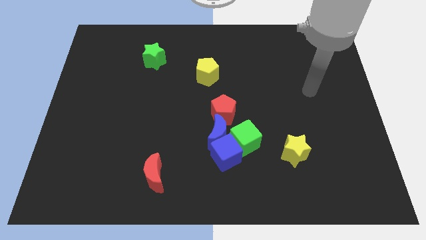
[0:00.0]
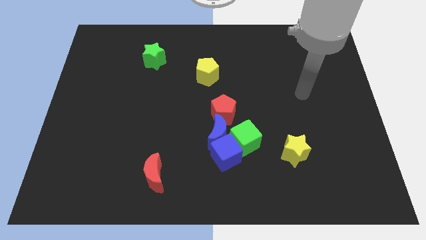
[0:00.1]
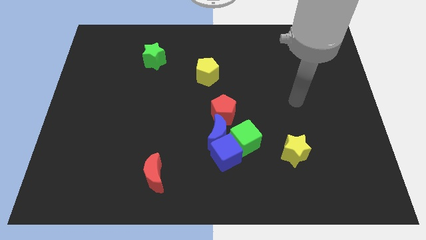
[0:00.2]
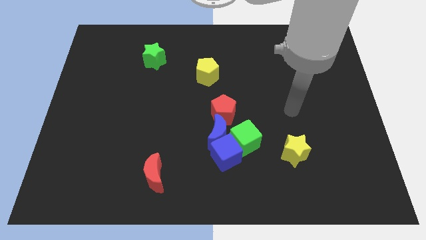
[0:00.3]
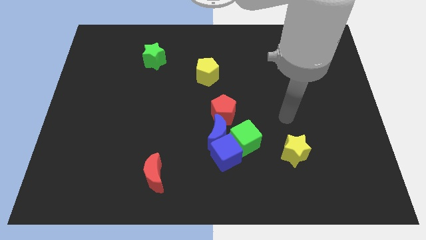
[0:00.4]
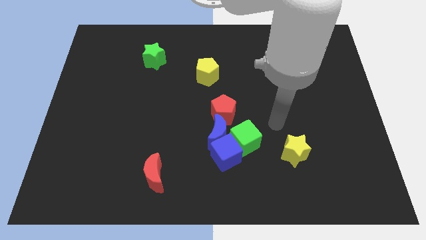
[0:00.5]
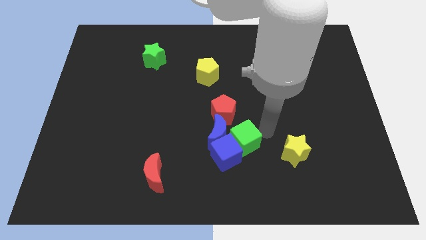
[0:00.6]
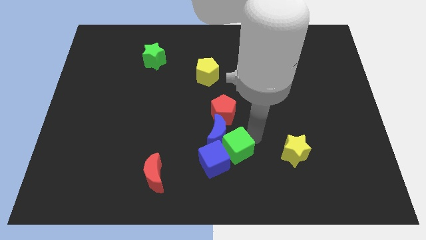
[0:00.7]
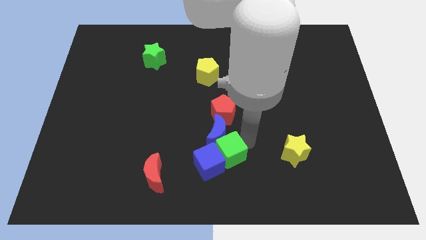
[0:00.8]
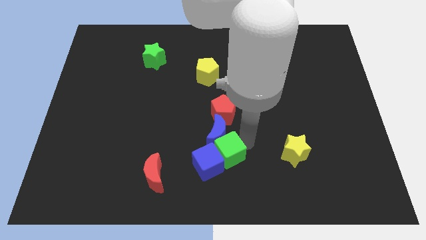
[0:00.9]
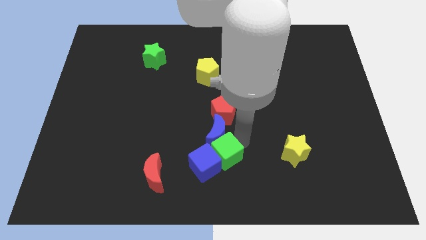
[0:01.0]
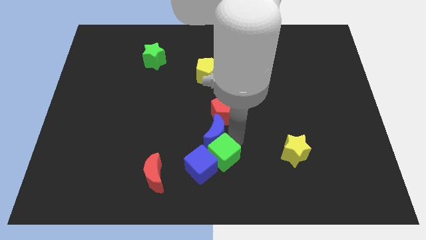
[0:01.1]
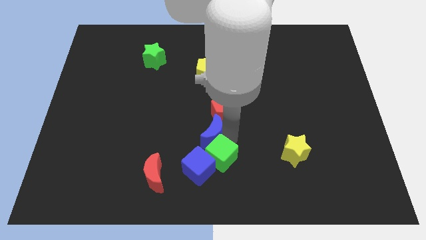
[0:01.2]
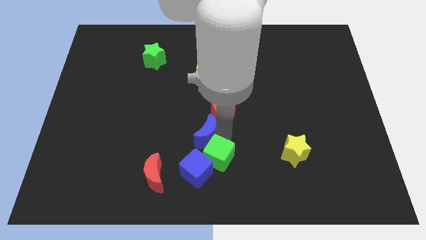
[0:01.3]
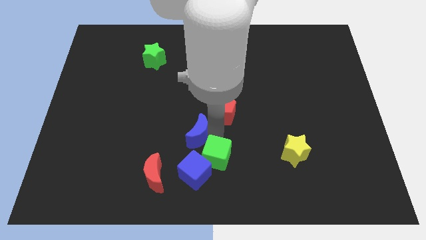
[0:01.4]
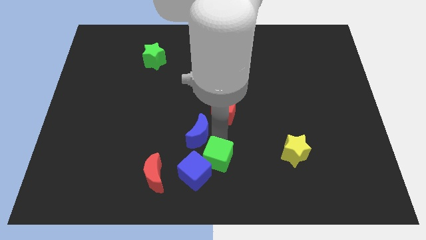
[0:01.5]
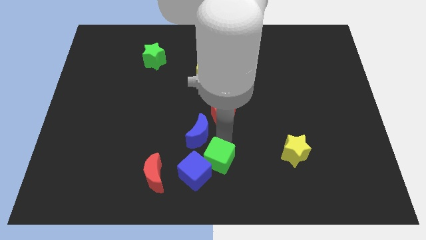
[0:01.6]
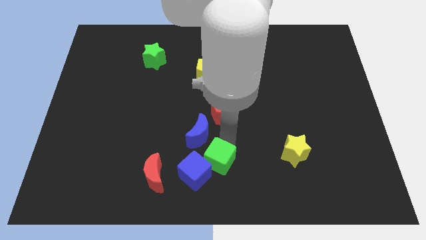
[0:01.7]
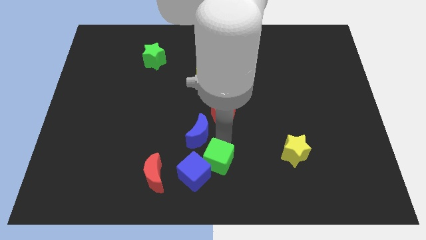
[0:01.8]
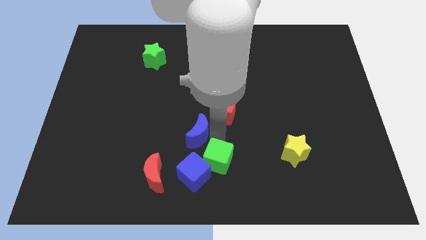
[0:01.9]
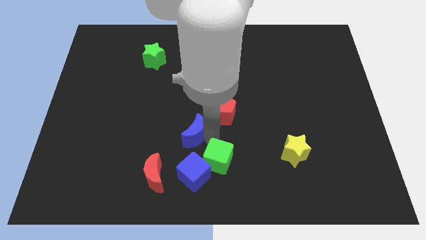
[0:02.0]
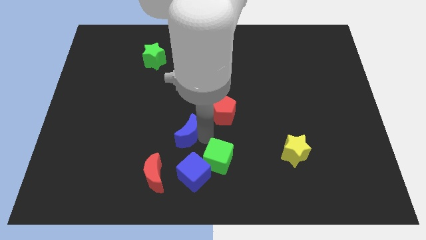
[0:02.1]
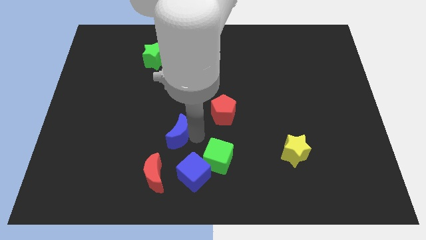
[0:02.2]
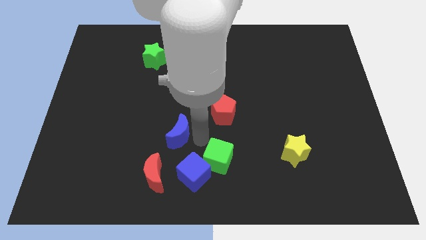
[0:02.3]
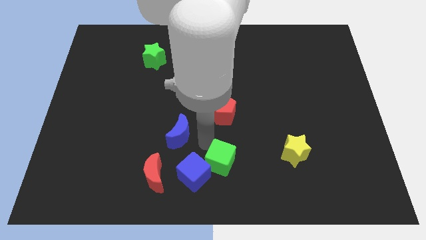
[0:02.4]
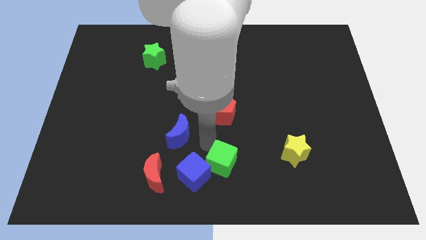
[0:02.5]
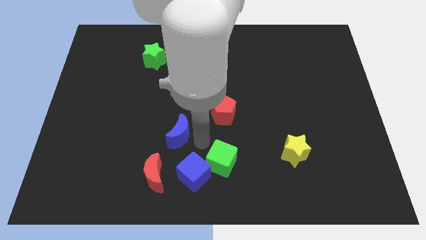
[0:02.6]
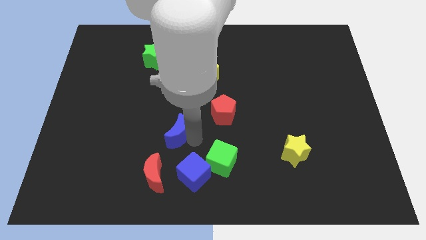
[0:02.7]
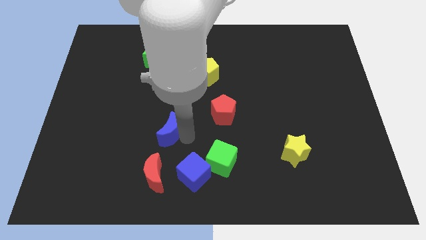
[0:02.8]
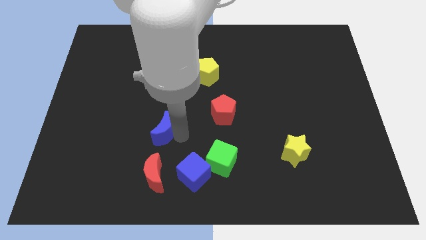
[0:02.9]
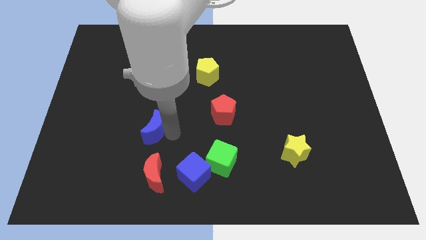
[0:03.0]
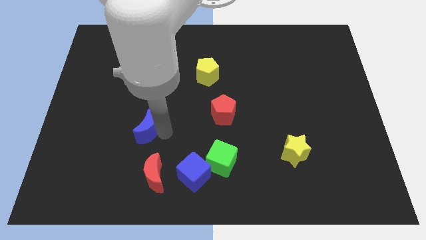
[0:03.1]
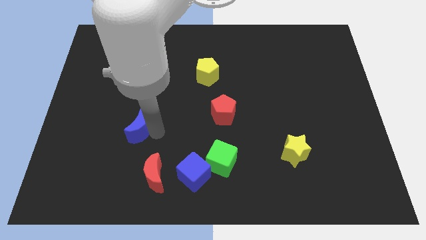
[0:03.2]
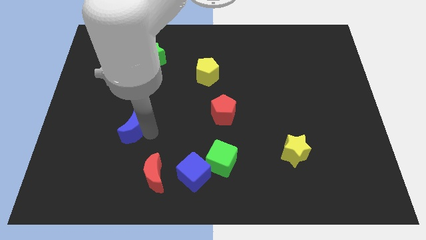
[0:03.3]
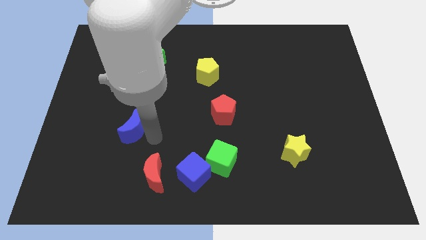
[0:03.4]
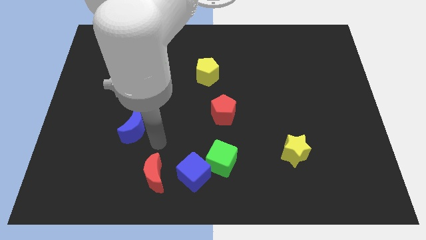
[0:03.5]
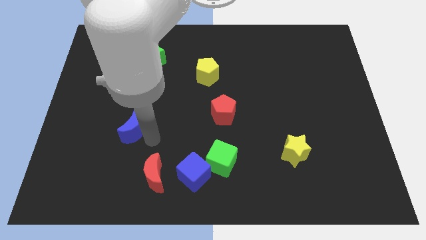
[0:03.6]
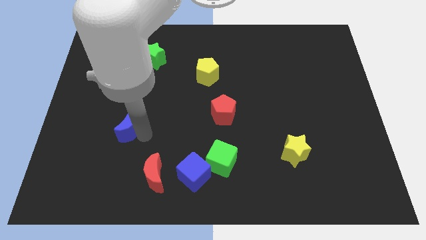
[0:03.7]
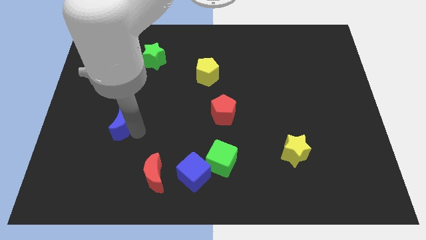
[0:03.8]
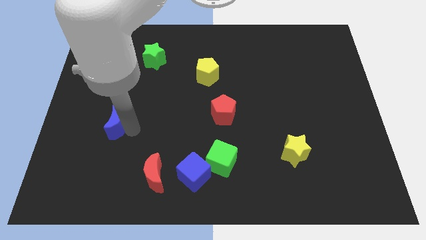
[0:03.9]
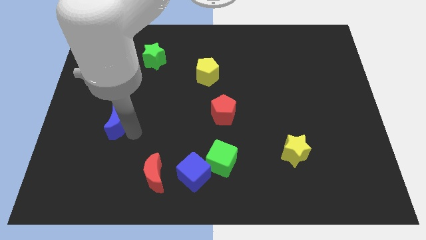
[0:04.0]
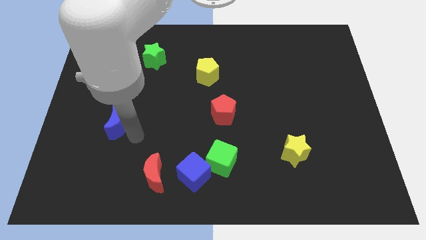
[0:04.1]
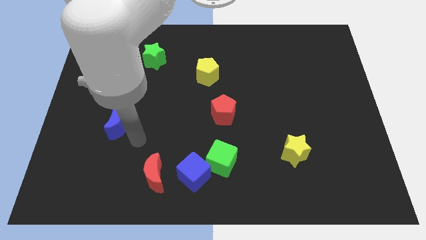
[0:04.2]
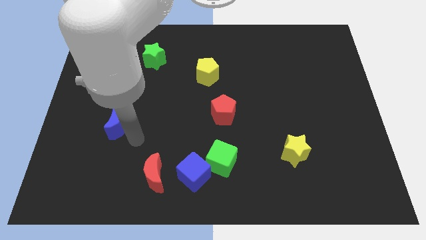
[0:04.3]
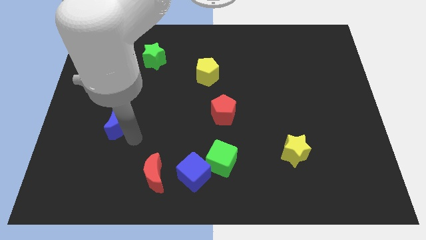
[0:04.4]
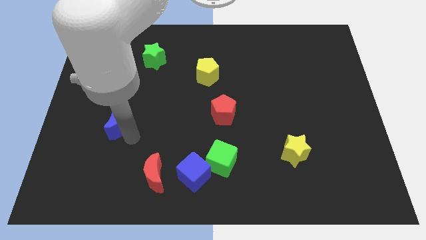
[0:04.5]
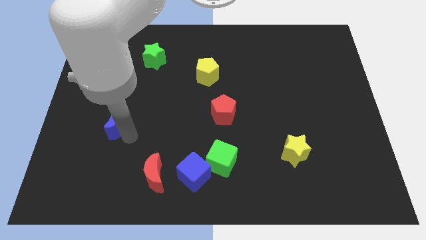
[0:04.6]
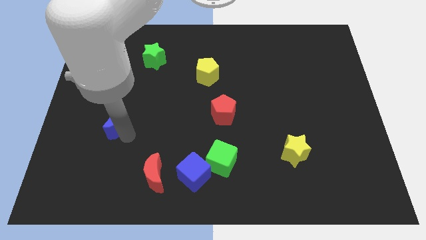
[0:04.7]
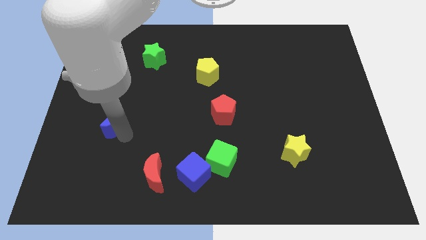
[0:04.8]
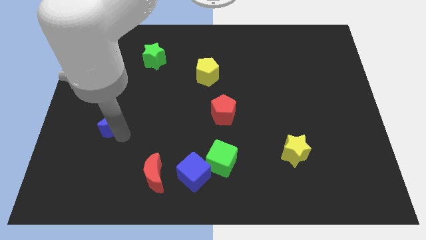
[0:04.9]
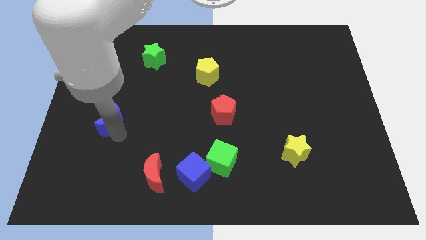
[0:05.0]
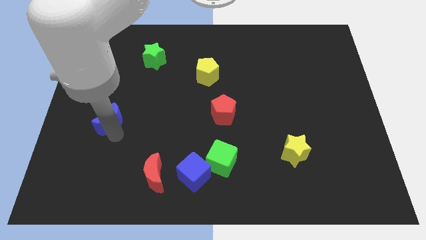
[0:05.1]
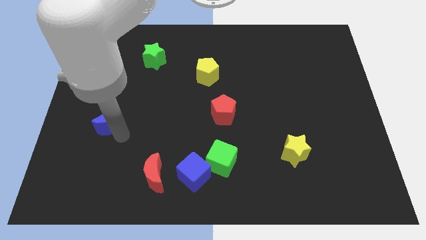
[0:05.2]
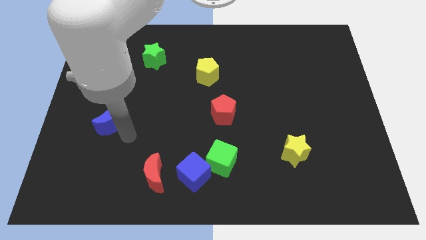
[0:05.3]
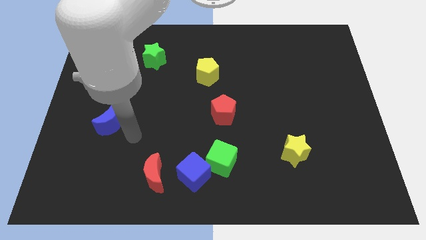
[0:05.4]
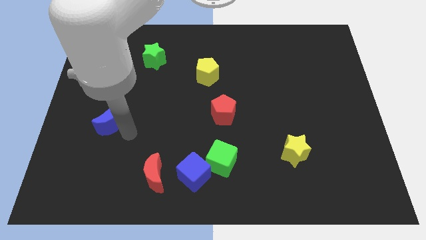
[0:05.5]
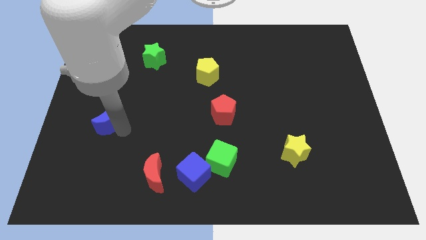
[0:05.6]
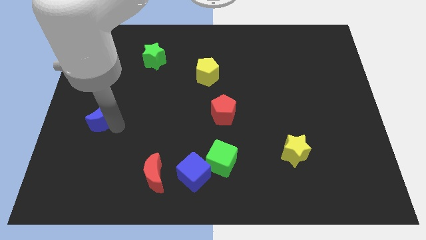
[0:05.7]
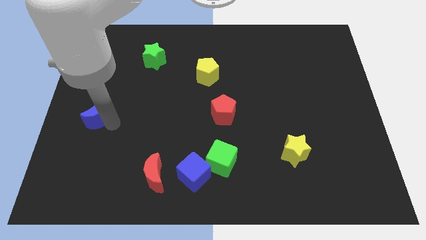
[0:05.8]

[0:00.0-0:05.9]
put the blue moon to the left side

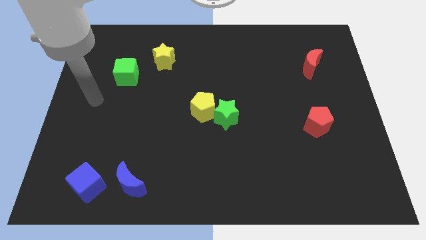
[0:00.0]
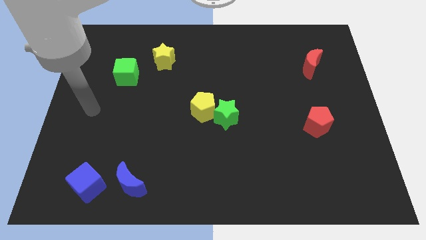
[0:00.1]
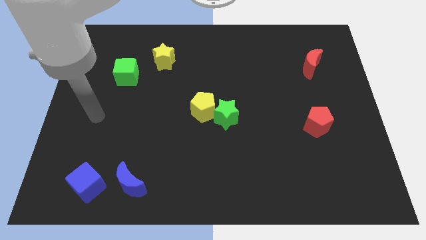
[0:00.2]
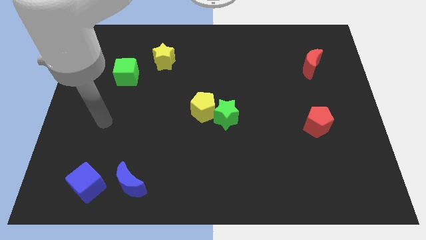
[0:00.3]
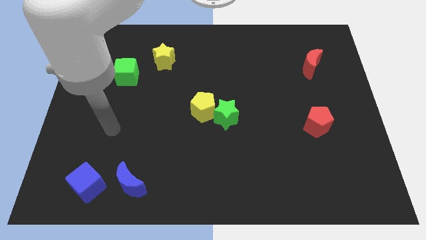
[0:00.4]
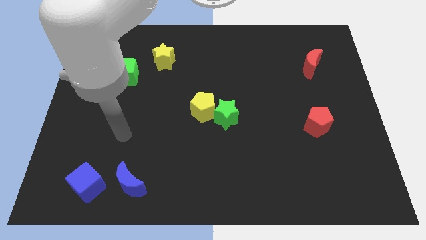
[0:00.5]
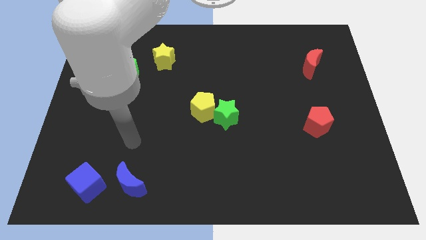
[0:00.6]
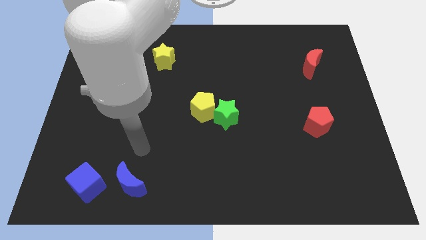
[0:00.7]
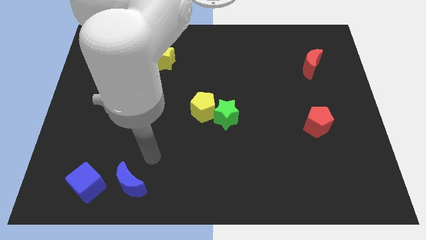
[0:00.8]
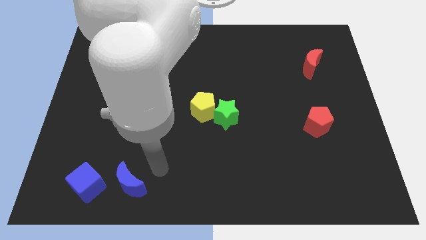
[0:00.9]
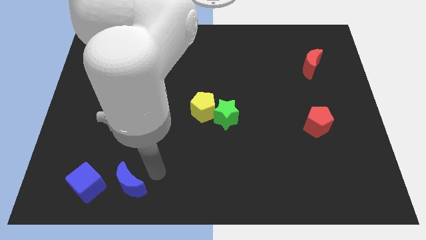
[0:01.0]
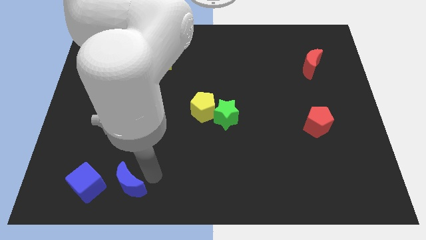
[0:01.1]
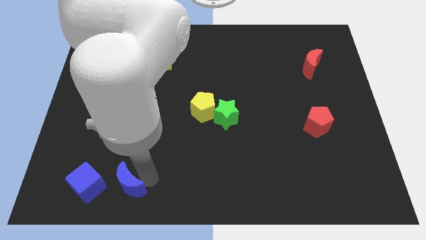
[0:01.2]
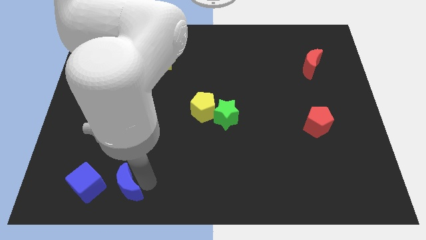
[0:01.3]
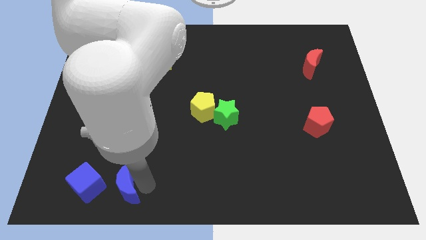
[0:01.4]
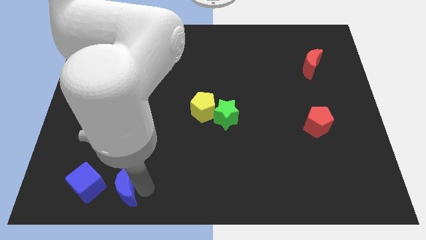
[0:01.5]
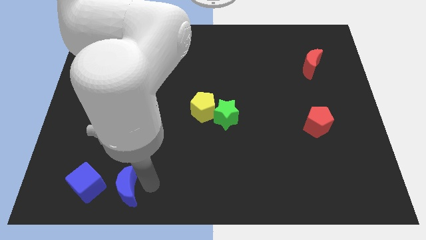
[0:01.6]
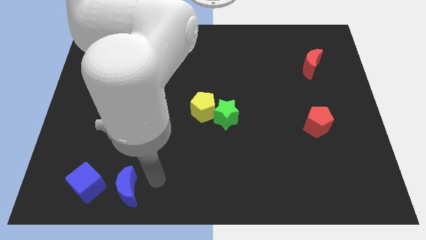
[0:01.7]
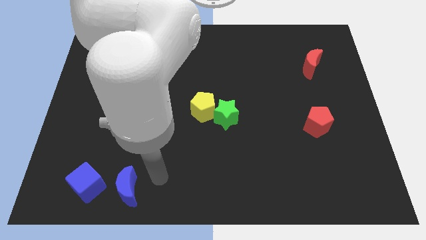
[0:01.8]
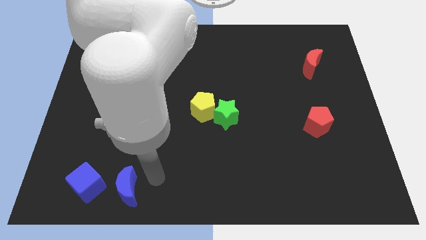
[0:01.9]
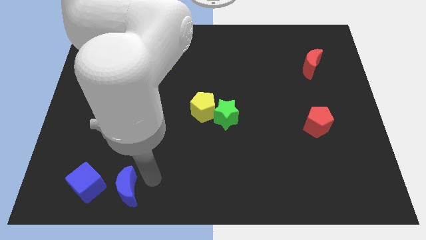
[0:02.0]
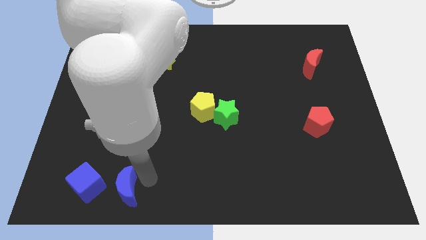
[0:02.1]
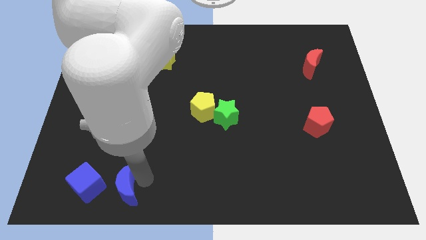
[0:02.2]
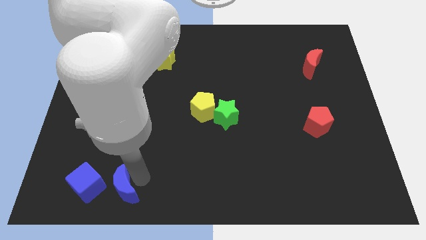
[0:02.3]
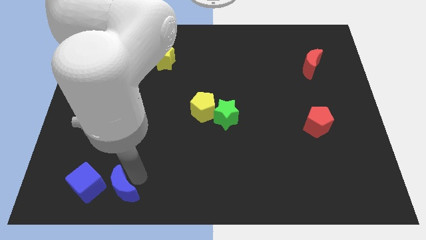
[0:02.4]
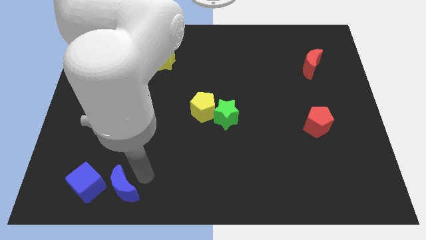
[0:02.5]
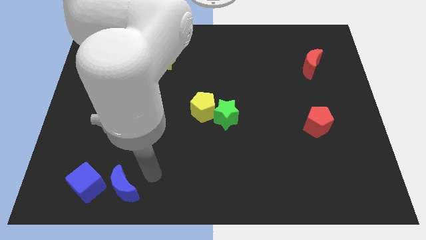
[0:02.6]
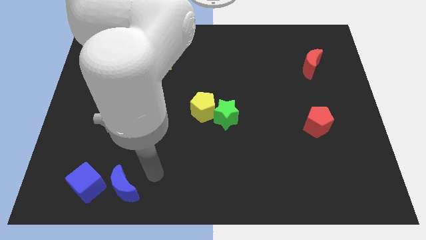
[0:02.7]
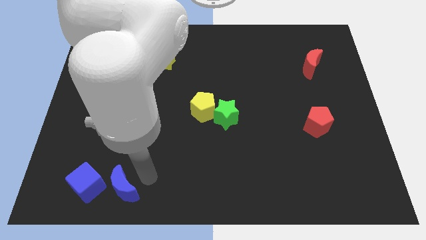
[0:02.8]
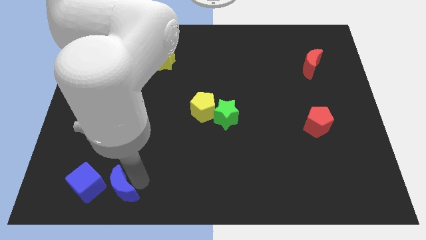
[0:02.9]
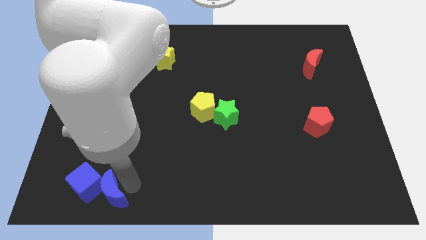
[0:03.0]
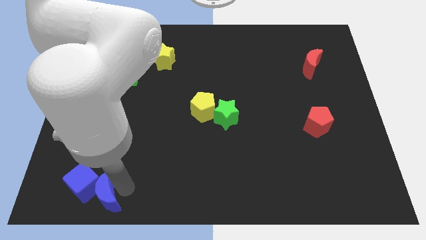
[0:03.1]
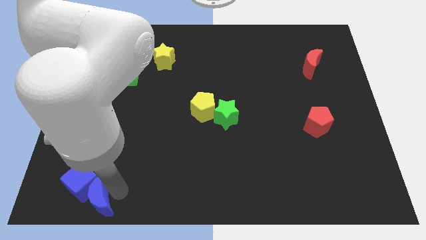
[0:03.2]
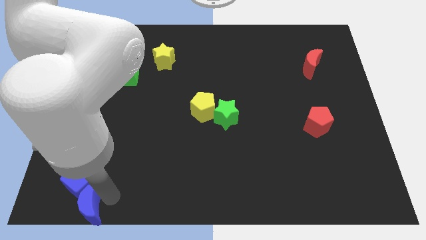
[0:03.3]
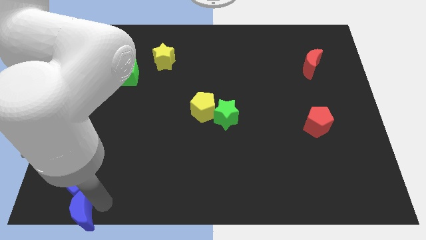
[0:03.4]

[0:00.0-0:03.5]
push the blue moon to the bottom left of the board
